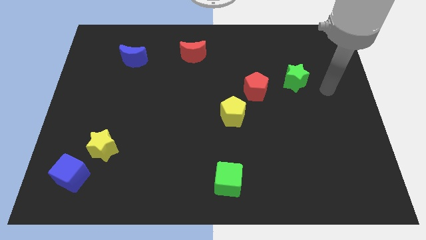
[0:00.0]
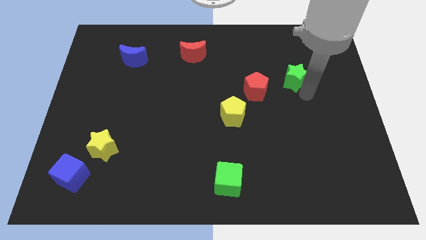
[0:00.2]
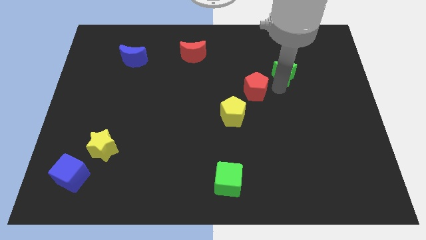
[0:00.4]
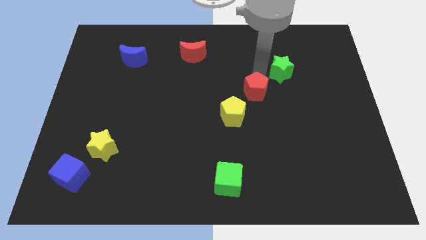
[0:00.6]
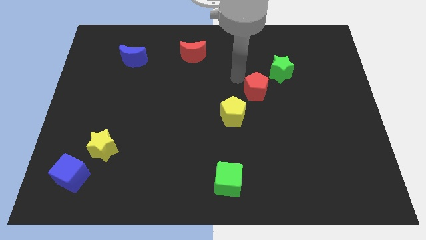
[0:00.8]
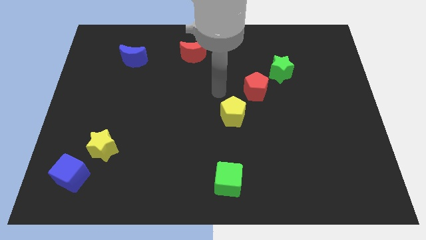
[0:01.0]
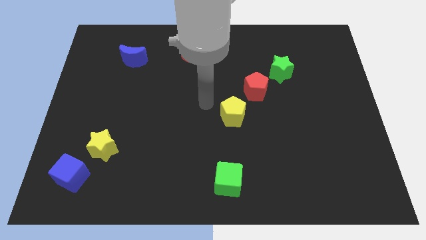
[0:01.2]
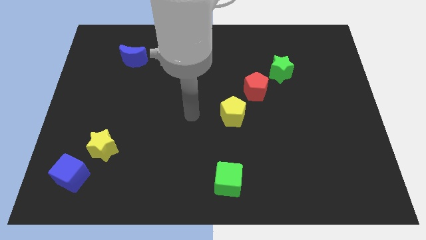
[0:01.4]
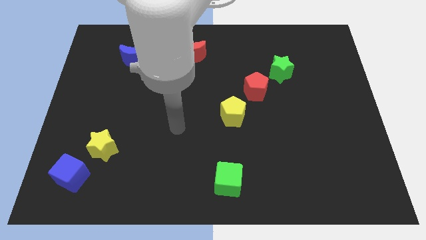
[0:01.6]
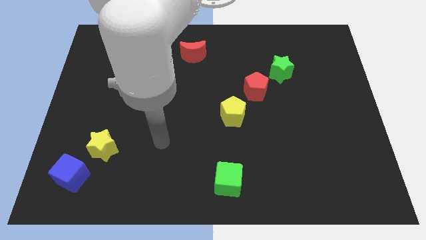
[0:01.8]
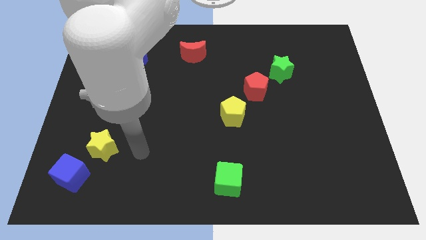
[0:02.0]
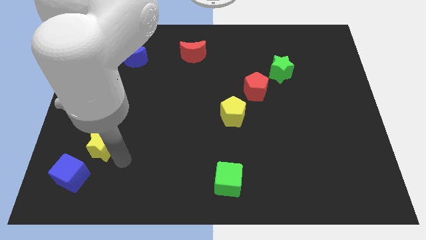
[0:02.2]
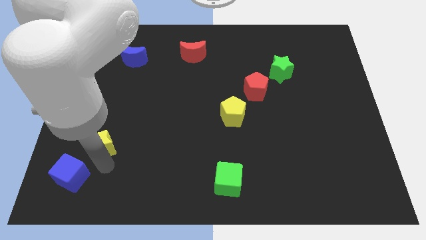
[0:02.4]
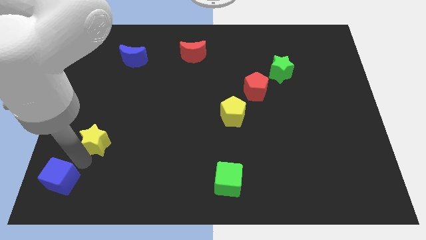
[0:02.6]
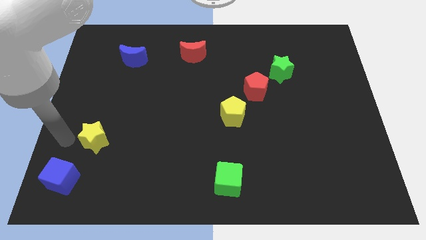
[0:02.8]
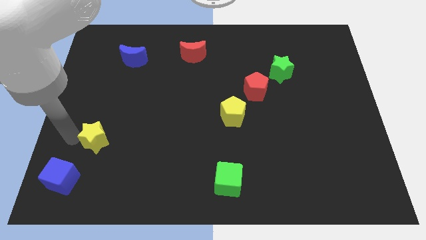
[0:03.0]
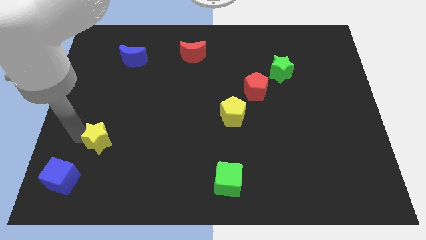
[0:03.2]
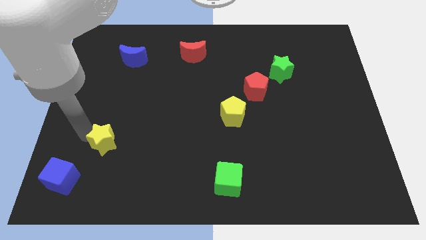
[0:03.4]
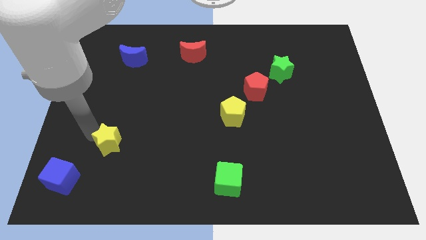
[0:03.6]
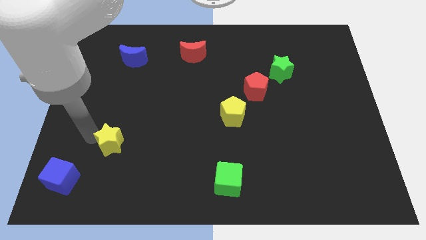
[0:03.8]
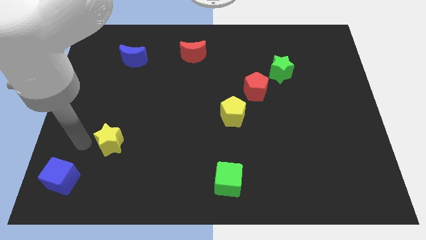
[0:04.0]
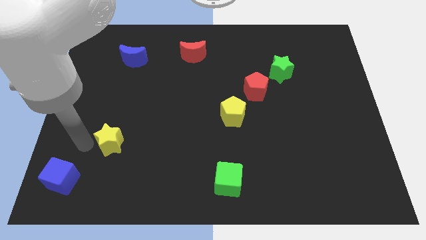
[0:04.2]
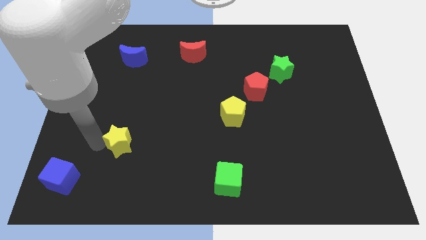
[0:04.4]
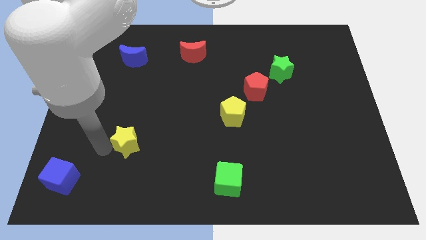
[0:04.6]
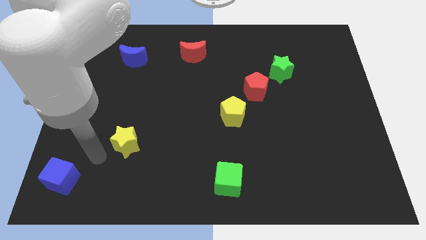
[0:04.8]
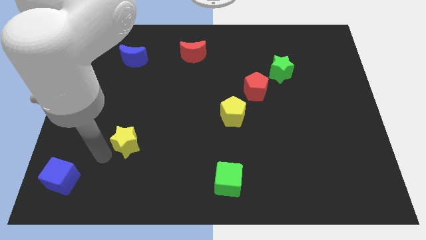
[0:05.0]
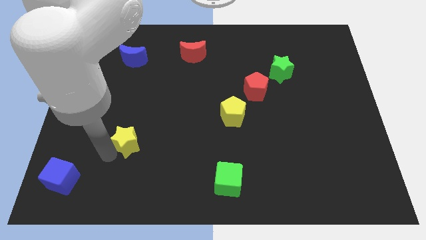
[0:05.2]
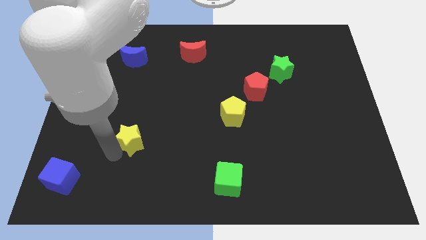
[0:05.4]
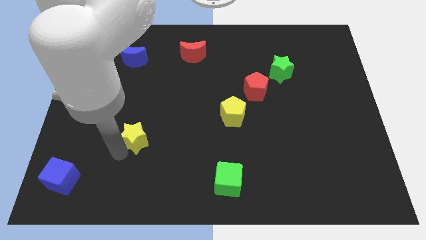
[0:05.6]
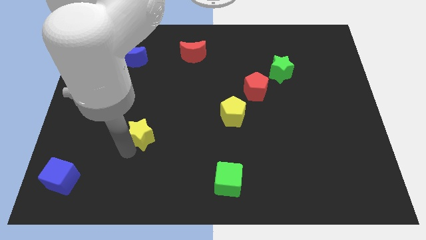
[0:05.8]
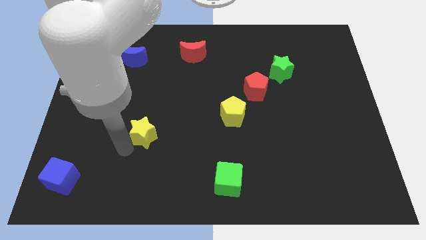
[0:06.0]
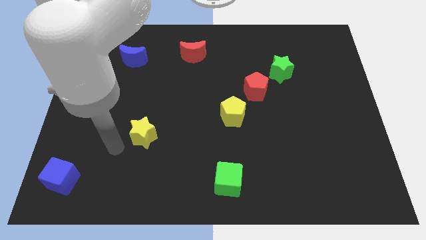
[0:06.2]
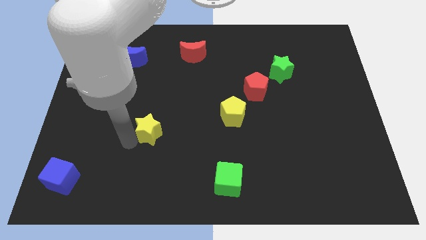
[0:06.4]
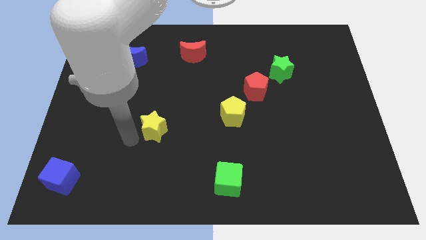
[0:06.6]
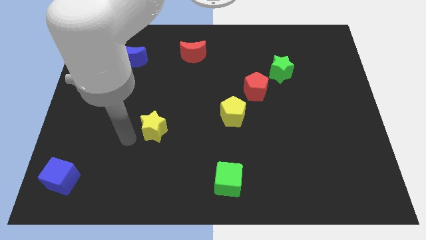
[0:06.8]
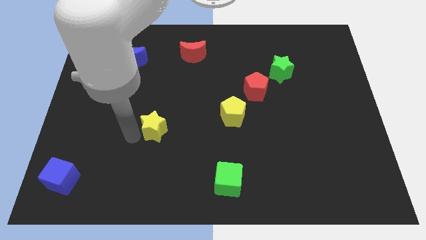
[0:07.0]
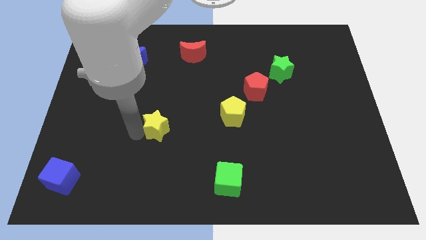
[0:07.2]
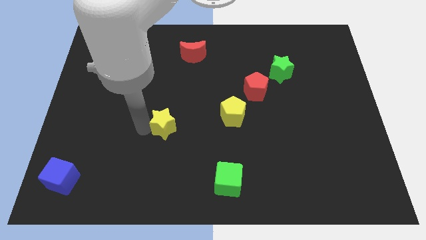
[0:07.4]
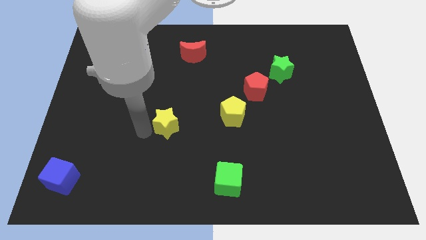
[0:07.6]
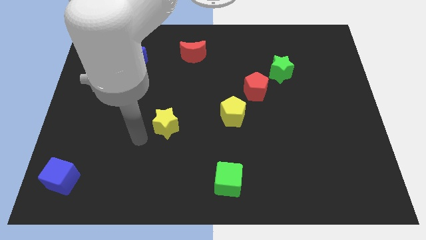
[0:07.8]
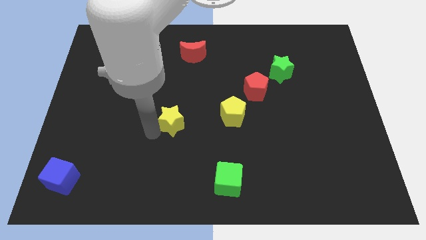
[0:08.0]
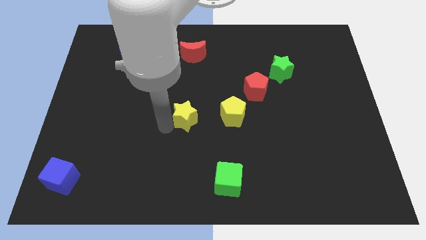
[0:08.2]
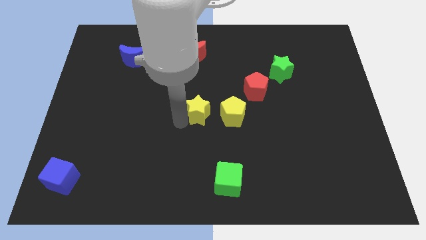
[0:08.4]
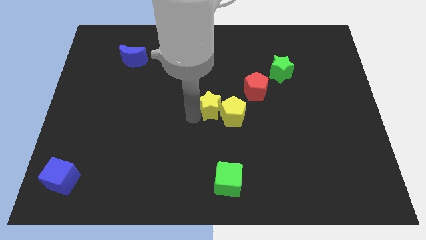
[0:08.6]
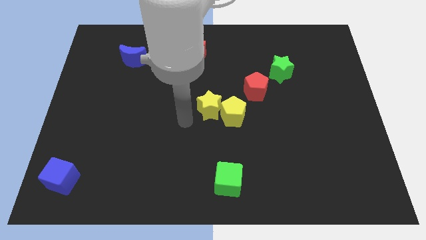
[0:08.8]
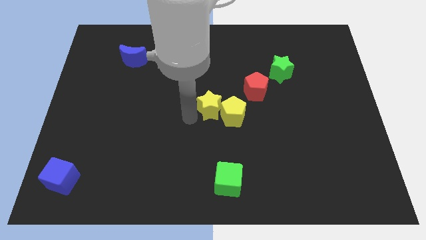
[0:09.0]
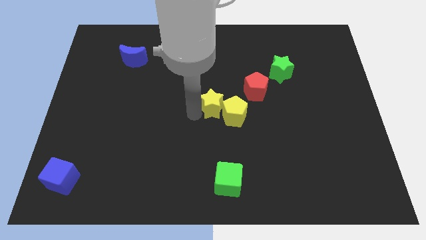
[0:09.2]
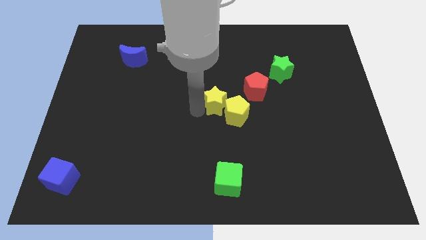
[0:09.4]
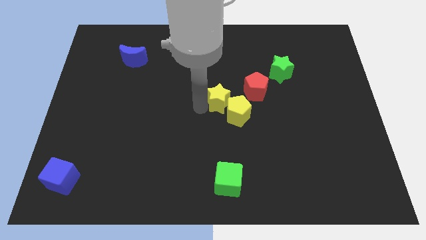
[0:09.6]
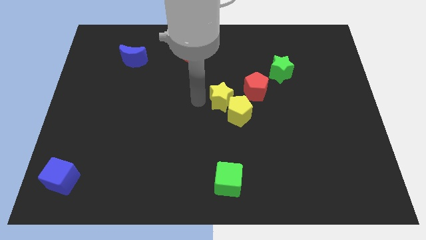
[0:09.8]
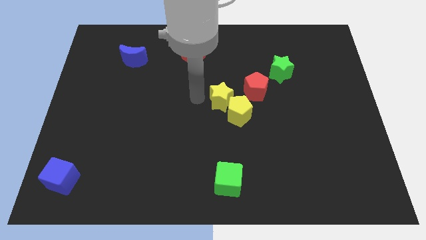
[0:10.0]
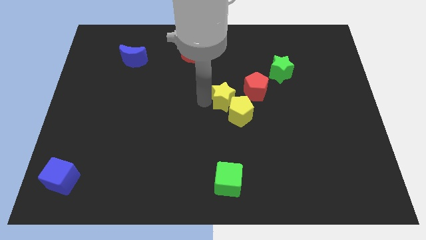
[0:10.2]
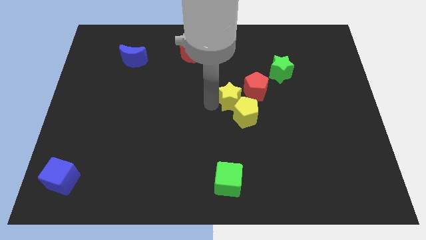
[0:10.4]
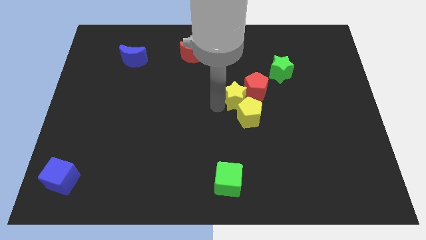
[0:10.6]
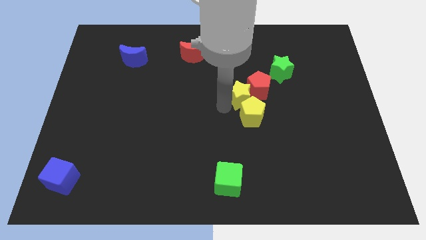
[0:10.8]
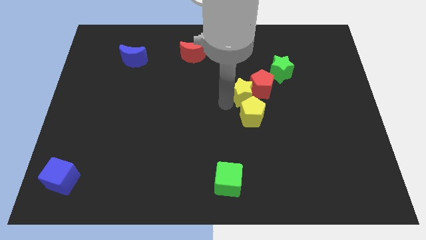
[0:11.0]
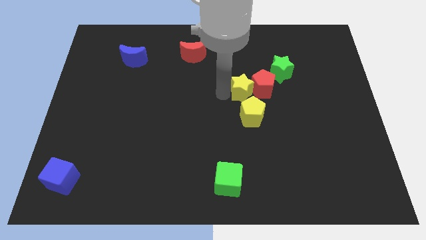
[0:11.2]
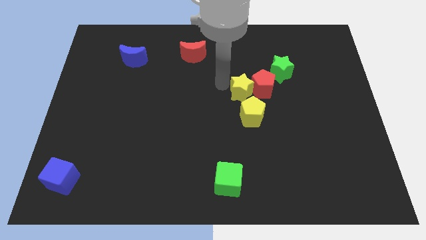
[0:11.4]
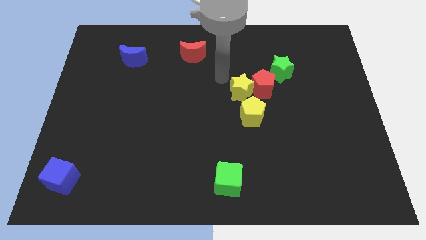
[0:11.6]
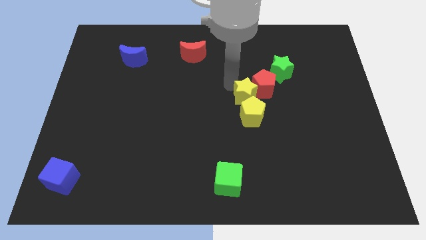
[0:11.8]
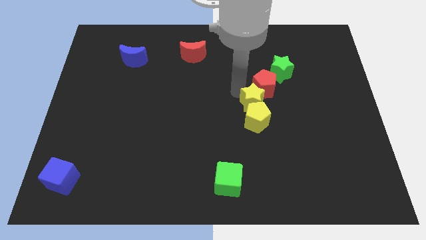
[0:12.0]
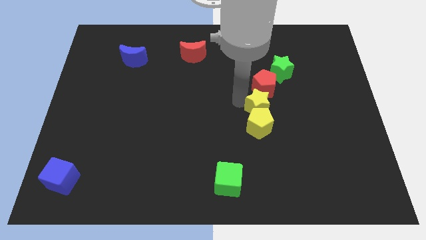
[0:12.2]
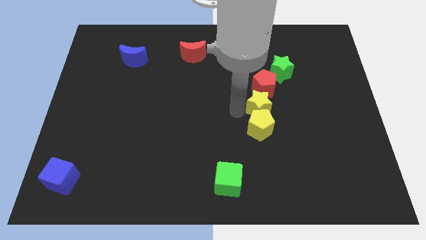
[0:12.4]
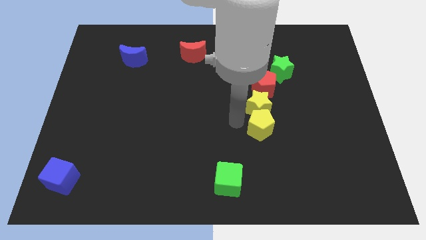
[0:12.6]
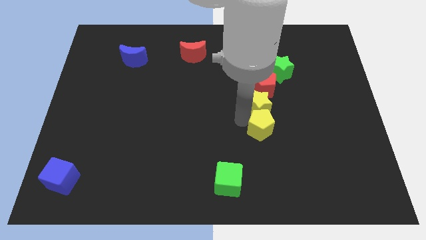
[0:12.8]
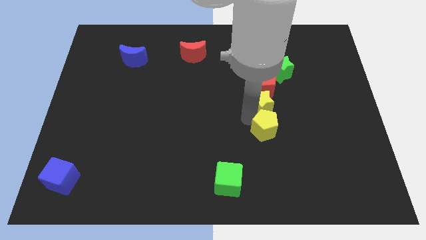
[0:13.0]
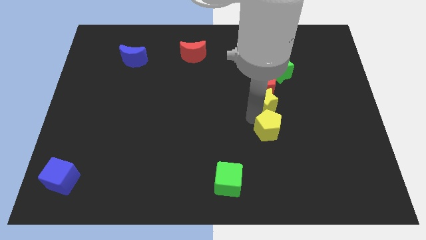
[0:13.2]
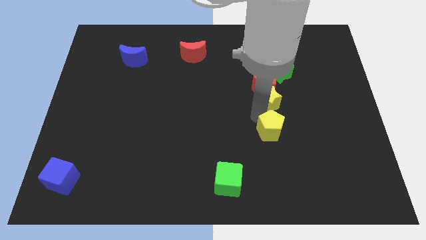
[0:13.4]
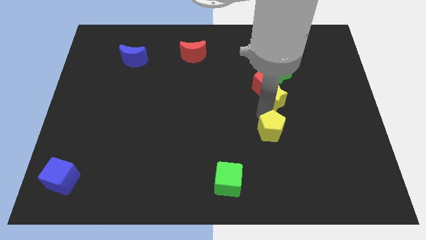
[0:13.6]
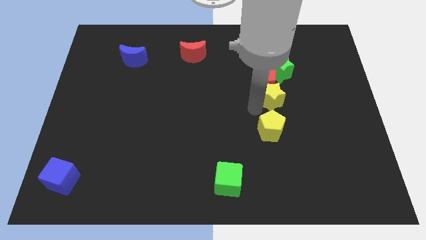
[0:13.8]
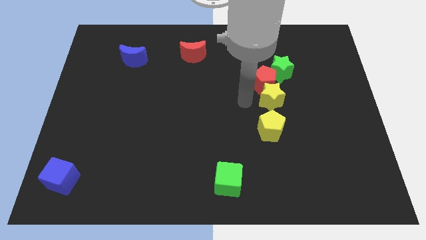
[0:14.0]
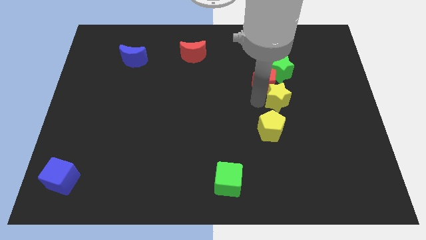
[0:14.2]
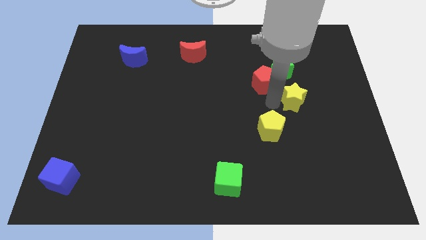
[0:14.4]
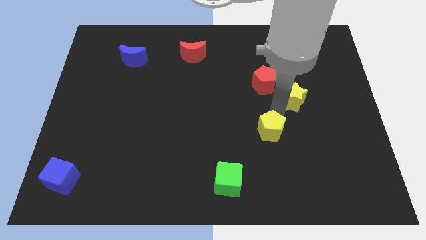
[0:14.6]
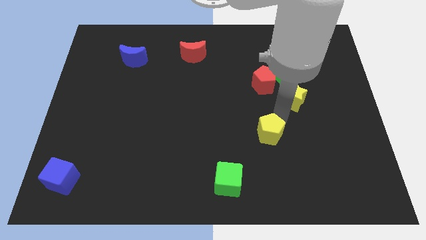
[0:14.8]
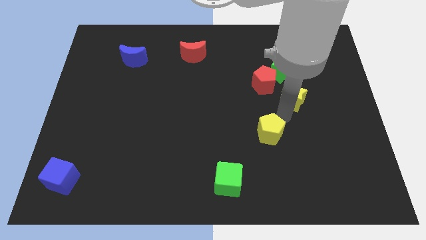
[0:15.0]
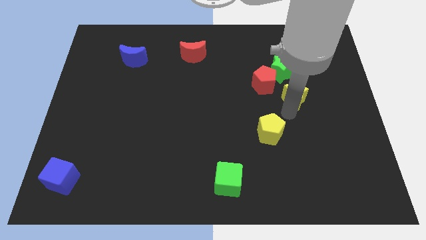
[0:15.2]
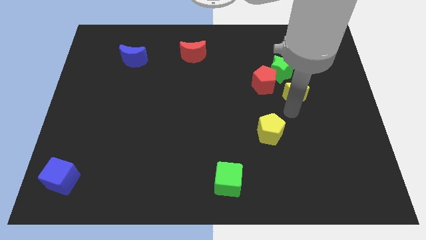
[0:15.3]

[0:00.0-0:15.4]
put the yellow star right of the red pentagon
